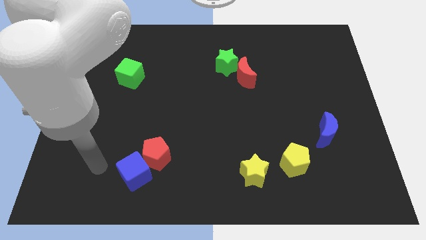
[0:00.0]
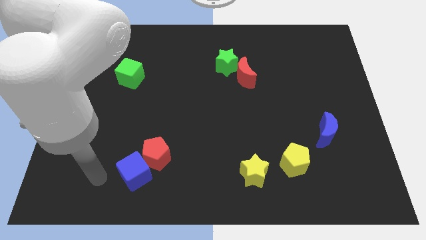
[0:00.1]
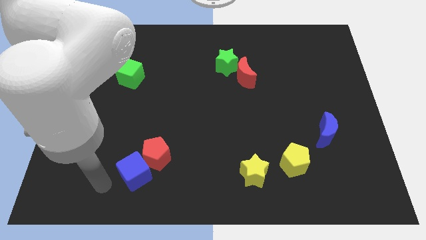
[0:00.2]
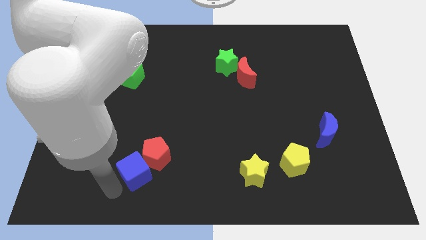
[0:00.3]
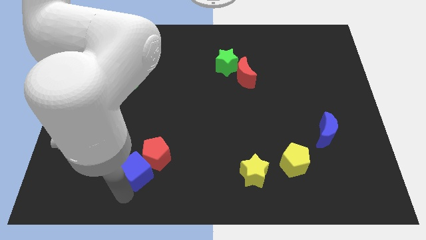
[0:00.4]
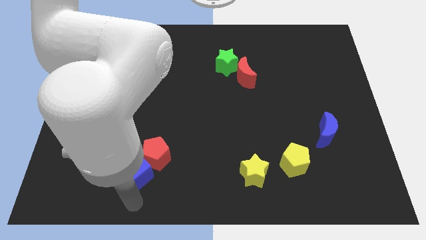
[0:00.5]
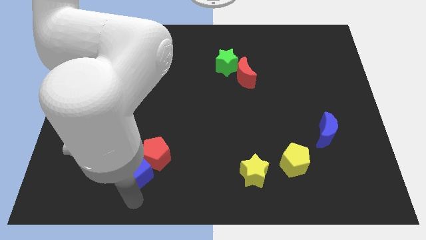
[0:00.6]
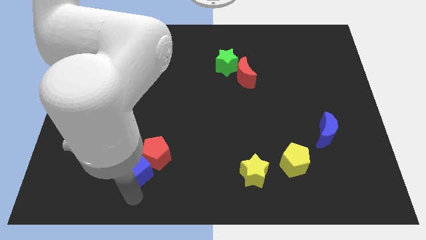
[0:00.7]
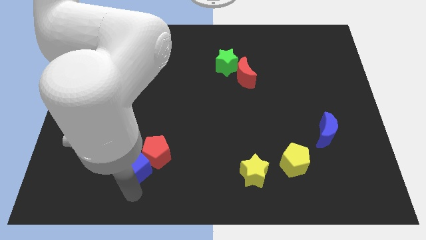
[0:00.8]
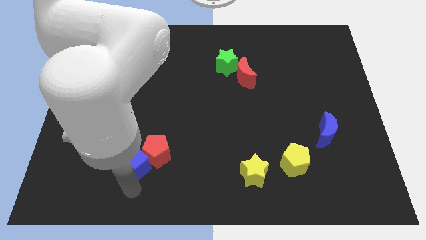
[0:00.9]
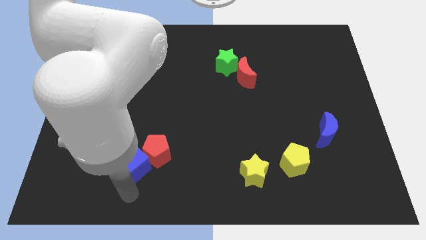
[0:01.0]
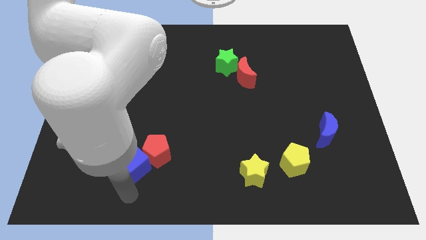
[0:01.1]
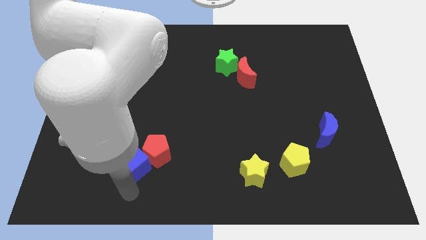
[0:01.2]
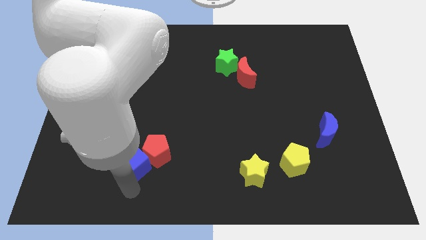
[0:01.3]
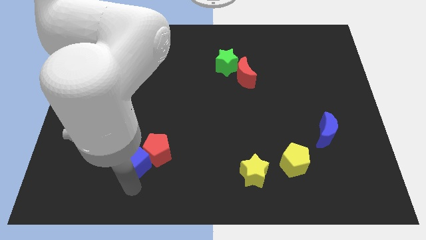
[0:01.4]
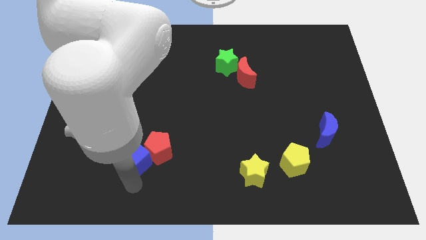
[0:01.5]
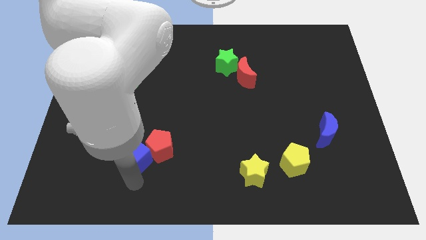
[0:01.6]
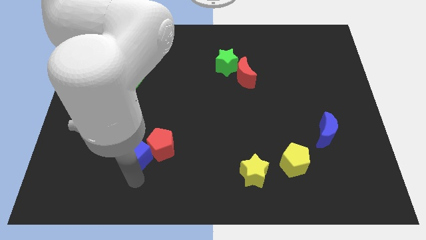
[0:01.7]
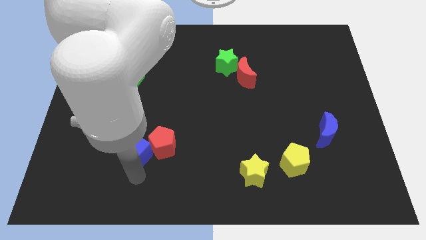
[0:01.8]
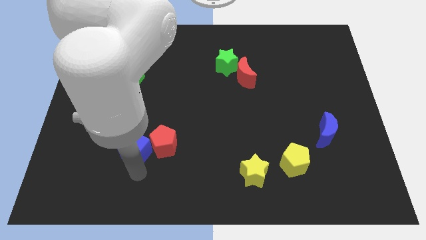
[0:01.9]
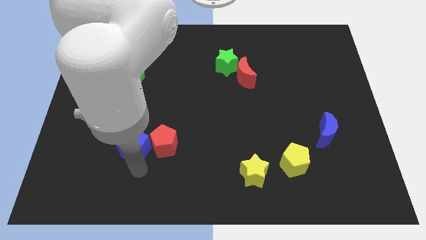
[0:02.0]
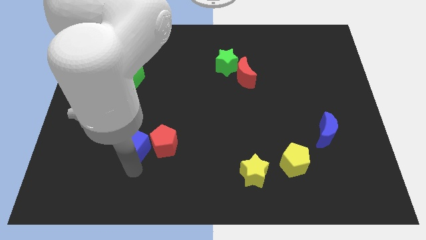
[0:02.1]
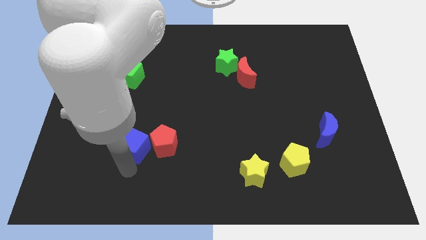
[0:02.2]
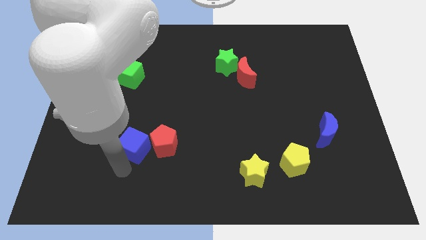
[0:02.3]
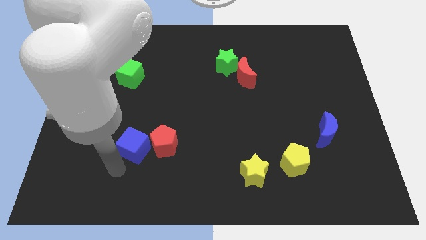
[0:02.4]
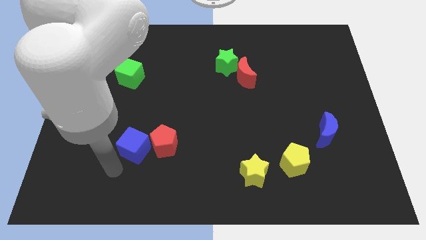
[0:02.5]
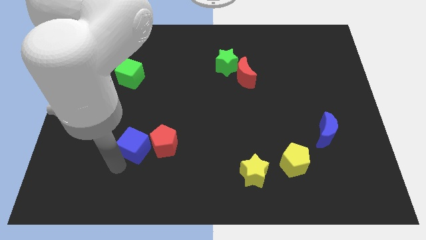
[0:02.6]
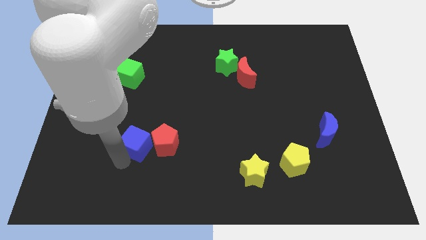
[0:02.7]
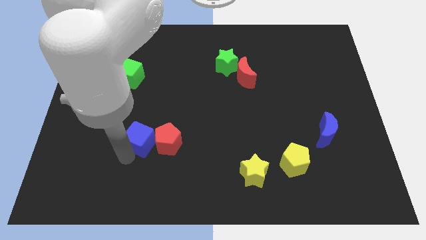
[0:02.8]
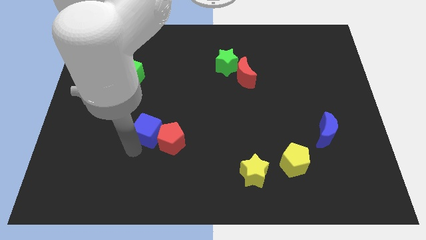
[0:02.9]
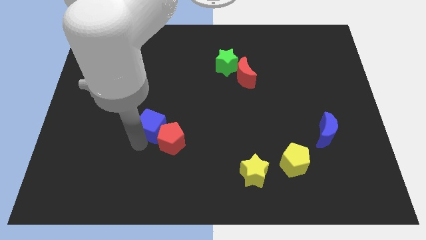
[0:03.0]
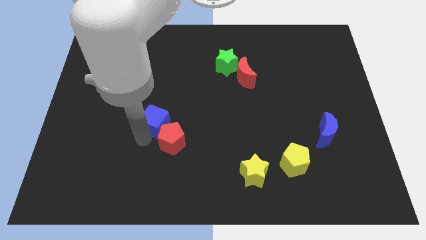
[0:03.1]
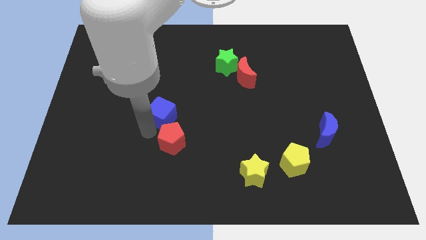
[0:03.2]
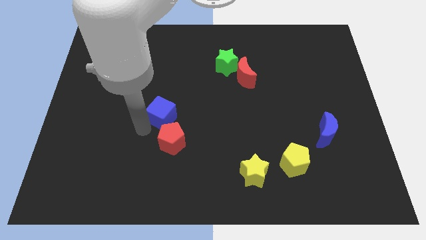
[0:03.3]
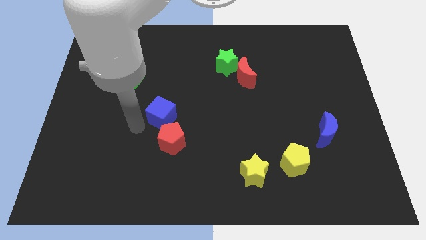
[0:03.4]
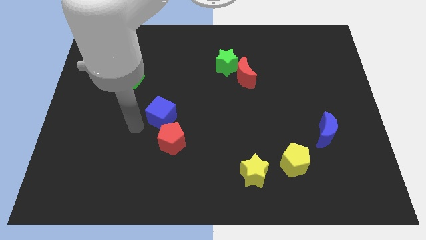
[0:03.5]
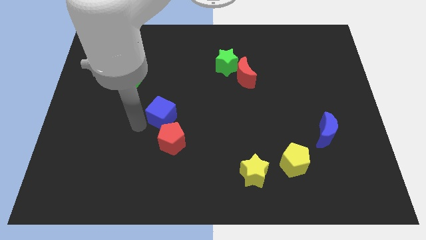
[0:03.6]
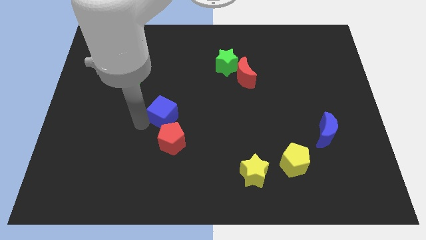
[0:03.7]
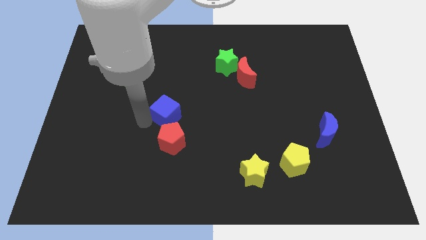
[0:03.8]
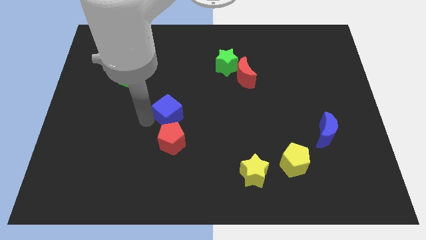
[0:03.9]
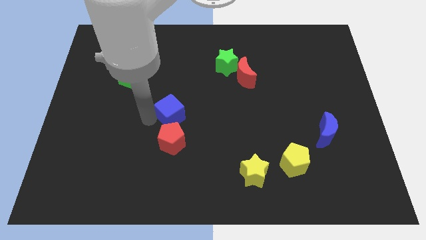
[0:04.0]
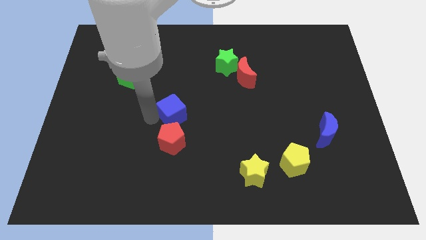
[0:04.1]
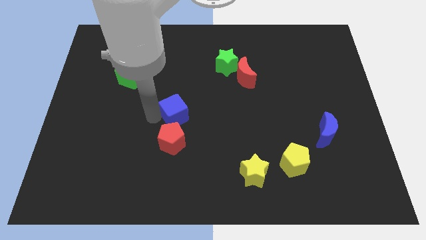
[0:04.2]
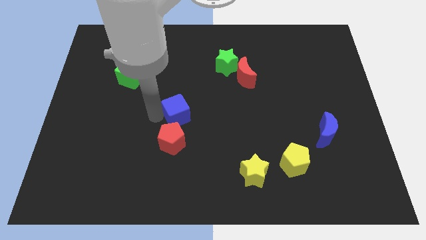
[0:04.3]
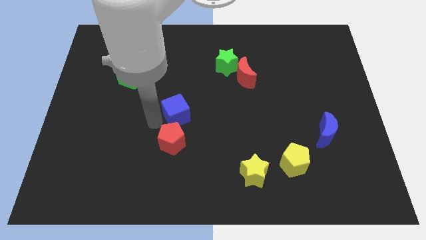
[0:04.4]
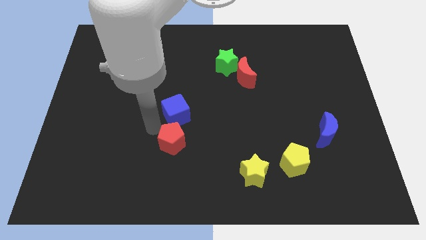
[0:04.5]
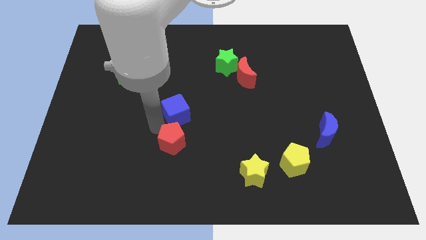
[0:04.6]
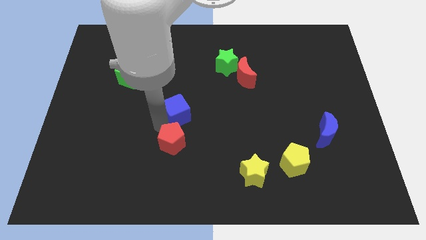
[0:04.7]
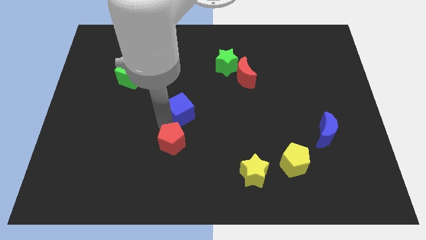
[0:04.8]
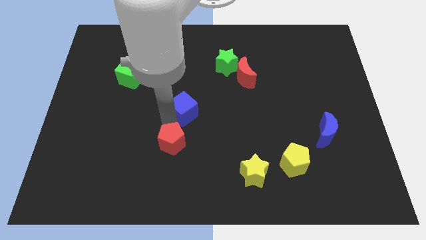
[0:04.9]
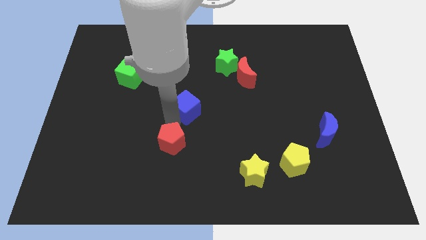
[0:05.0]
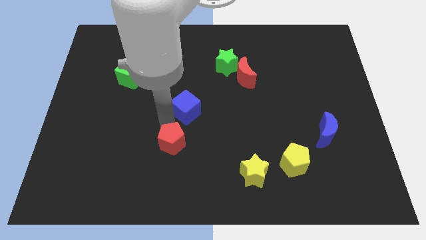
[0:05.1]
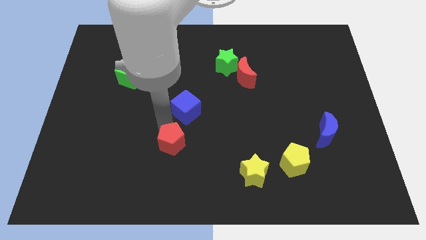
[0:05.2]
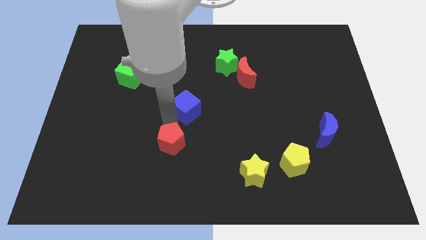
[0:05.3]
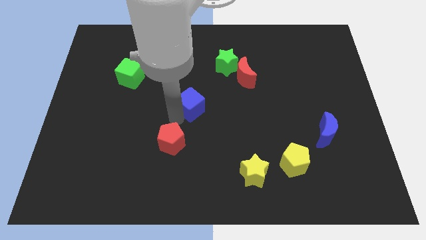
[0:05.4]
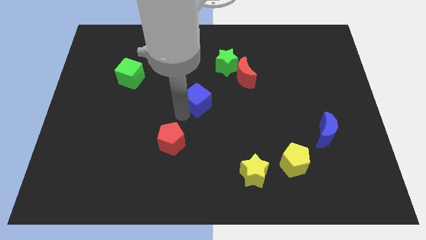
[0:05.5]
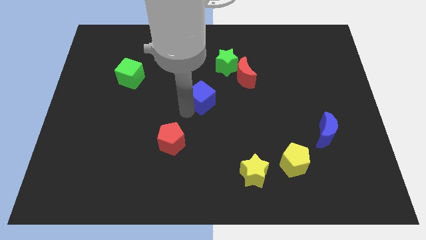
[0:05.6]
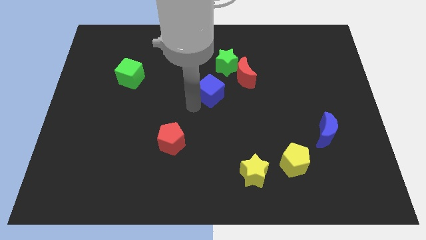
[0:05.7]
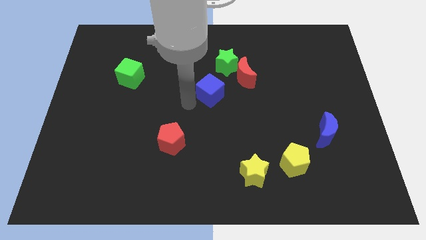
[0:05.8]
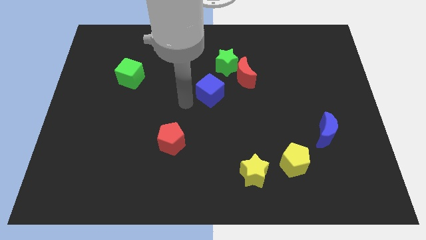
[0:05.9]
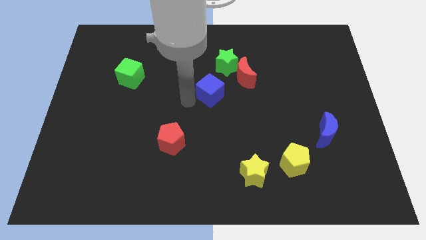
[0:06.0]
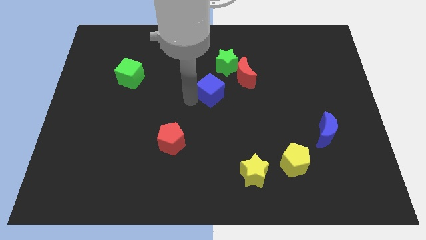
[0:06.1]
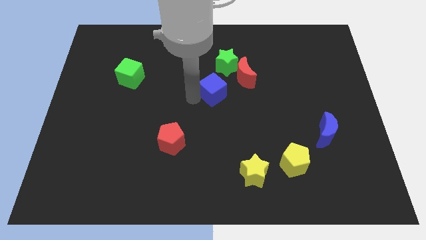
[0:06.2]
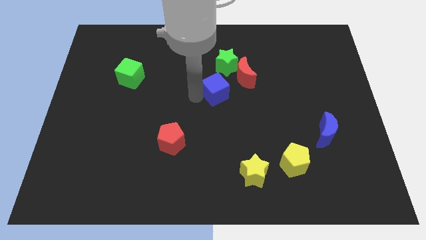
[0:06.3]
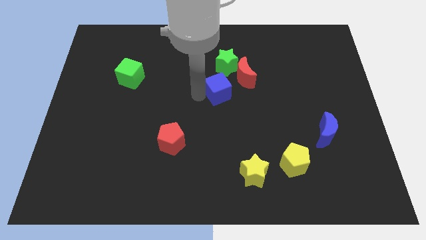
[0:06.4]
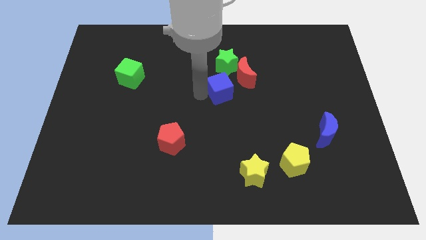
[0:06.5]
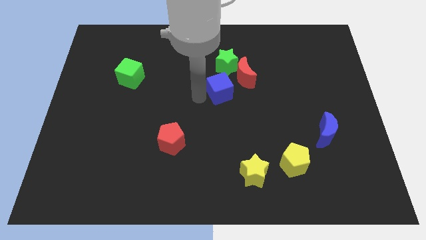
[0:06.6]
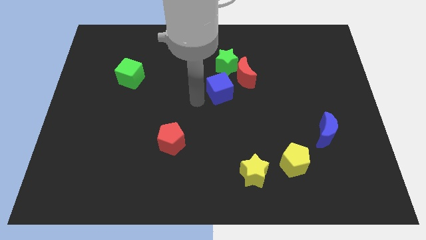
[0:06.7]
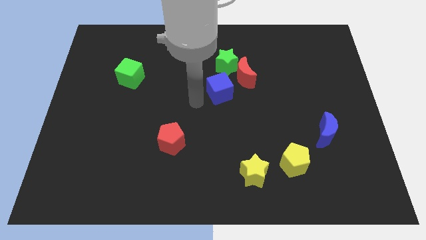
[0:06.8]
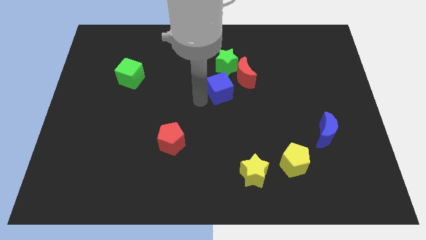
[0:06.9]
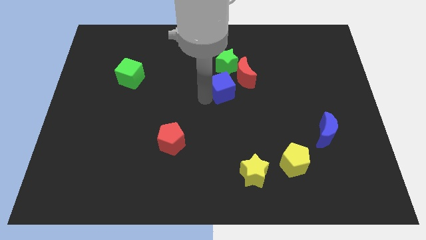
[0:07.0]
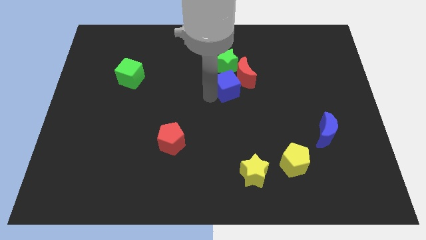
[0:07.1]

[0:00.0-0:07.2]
push the blue cube next to the red moon
